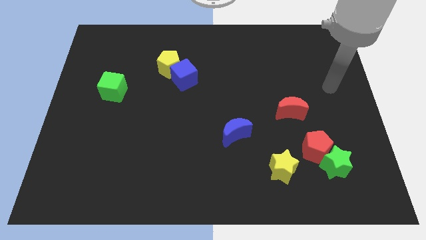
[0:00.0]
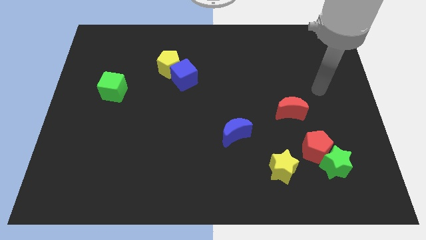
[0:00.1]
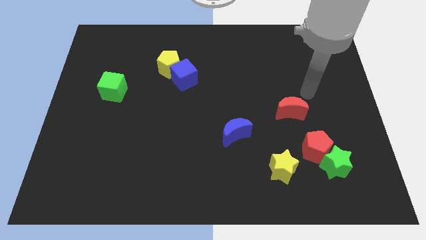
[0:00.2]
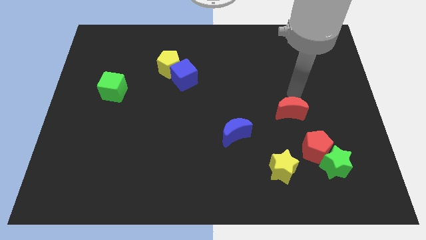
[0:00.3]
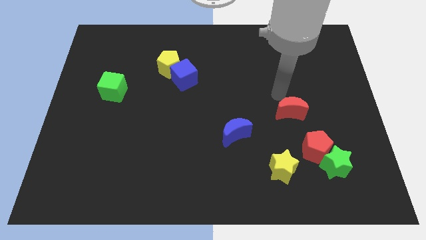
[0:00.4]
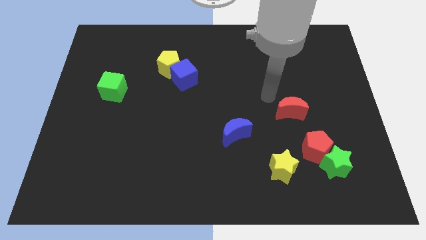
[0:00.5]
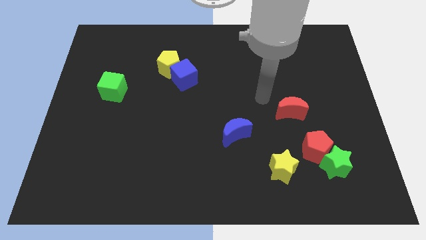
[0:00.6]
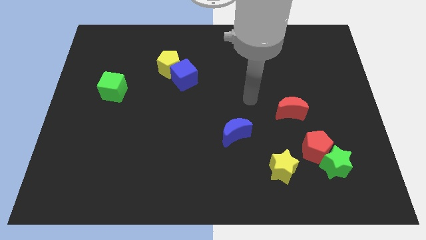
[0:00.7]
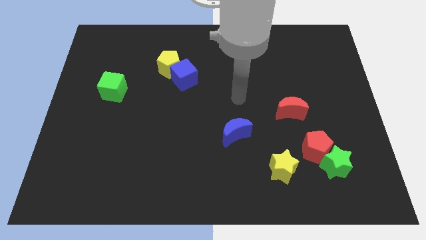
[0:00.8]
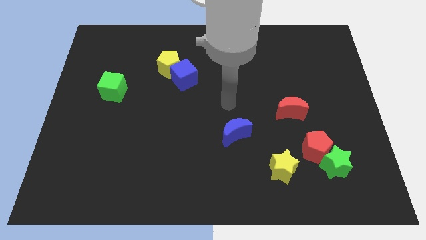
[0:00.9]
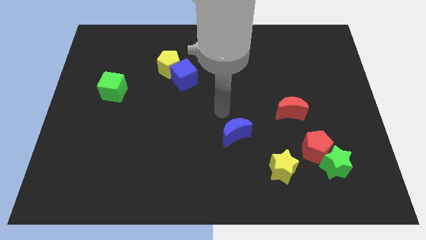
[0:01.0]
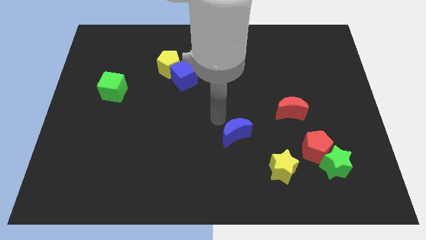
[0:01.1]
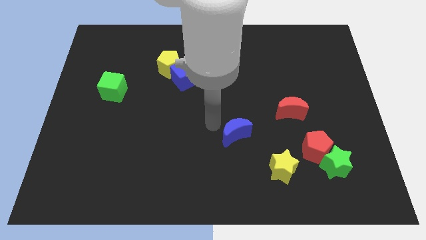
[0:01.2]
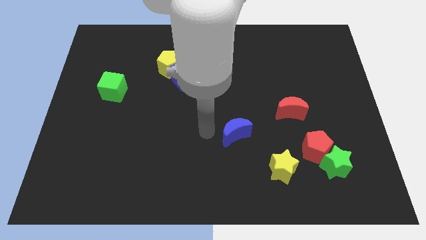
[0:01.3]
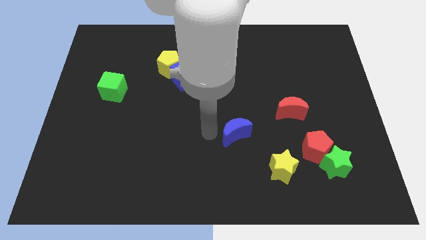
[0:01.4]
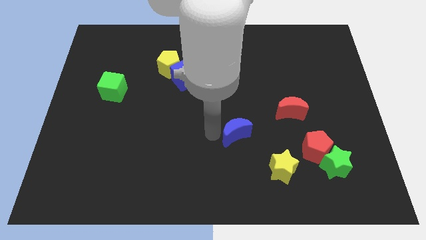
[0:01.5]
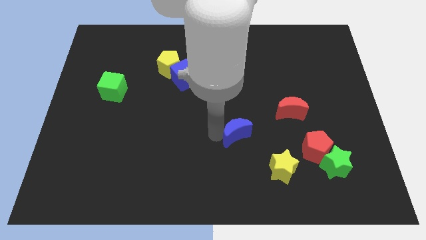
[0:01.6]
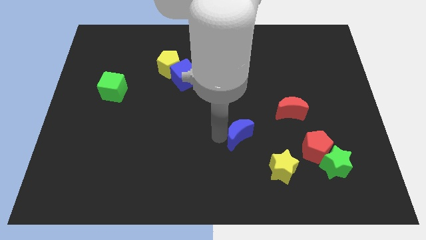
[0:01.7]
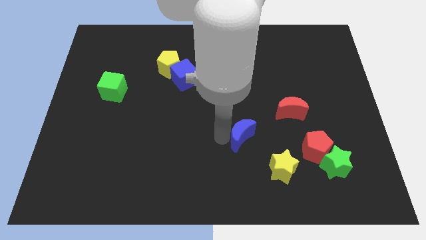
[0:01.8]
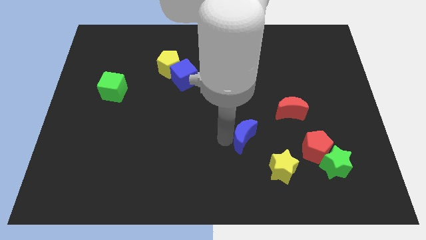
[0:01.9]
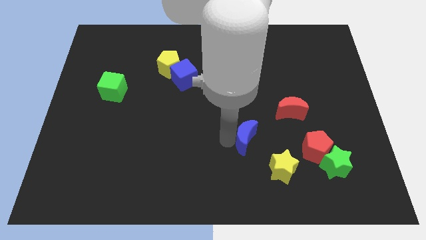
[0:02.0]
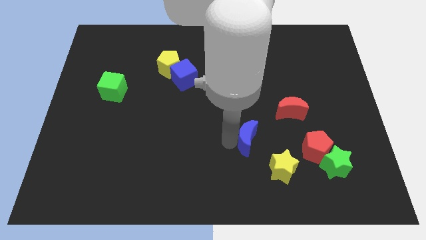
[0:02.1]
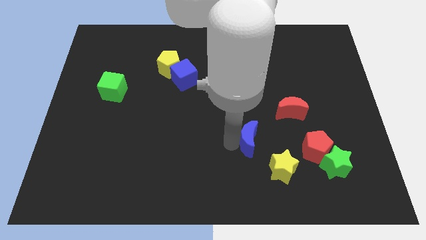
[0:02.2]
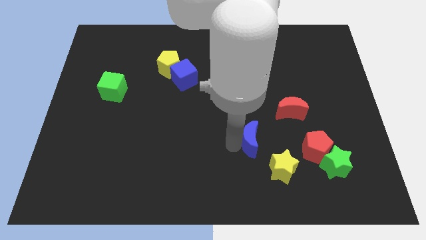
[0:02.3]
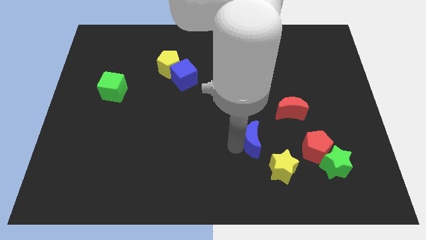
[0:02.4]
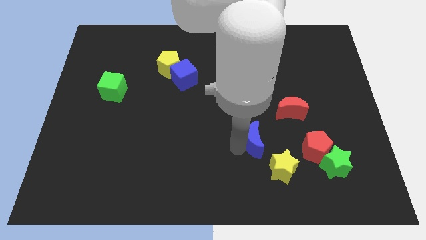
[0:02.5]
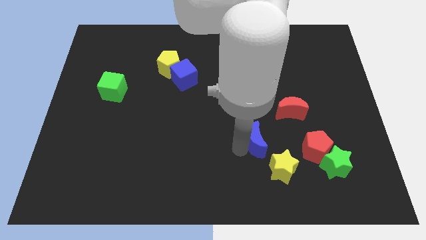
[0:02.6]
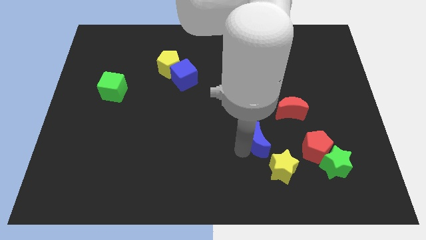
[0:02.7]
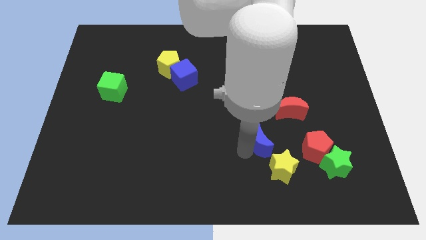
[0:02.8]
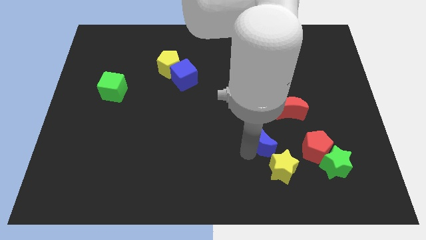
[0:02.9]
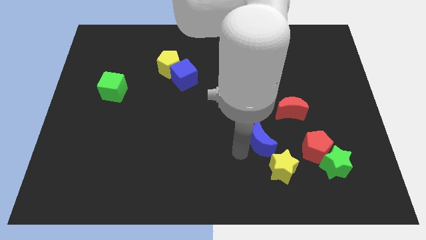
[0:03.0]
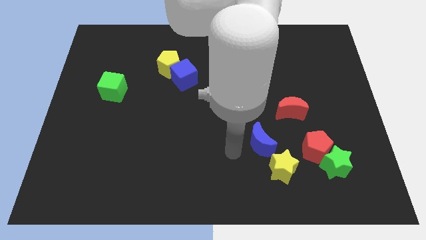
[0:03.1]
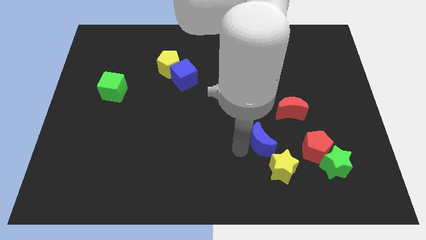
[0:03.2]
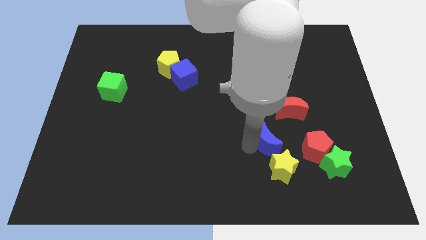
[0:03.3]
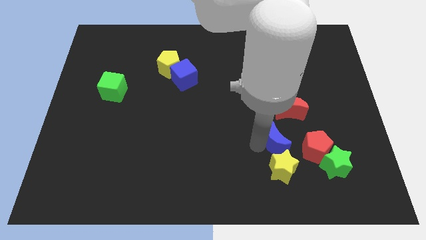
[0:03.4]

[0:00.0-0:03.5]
push the blue moon to the right a little bit

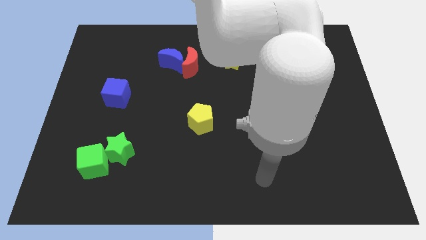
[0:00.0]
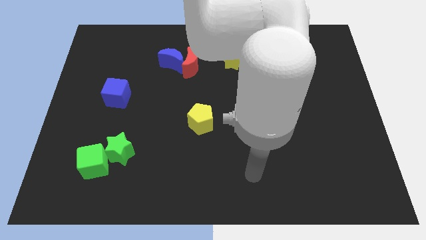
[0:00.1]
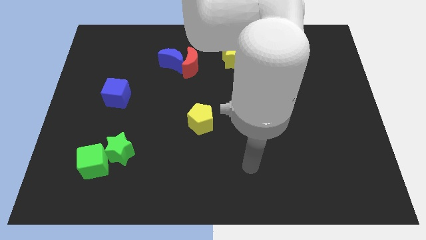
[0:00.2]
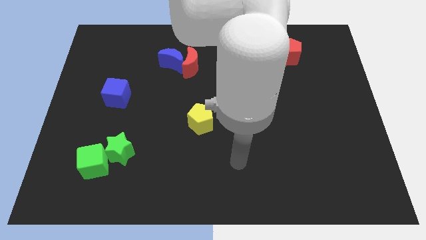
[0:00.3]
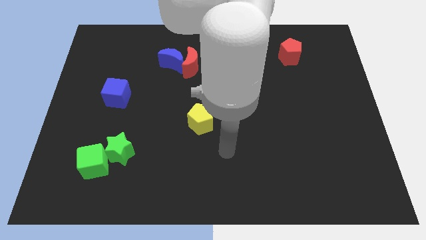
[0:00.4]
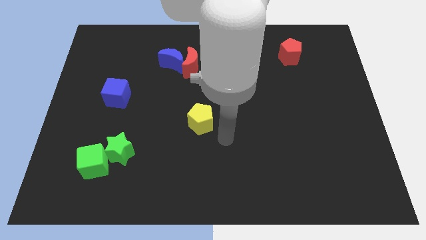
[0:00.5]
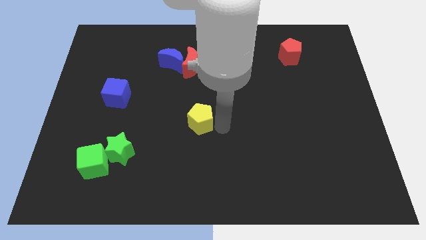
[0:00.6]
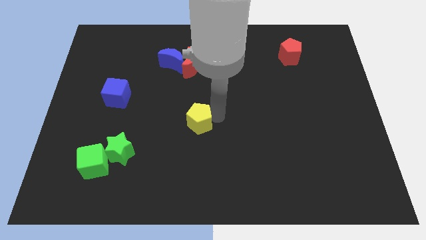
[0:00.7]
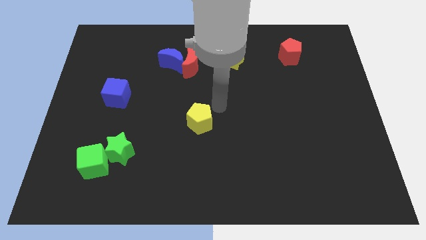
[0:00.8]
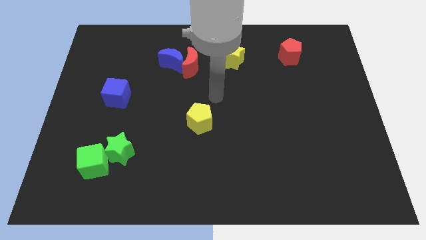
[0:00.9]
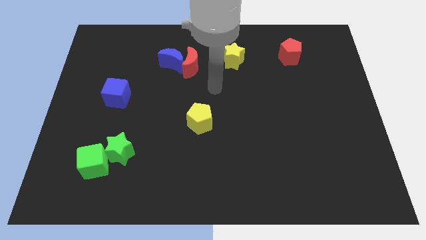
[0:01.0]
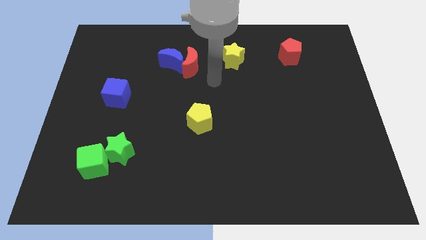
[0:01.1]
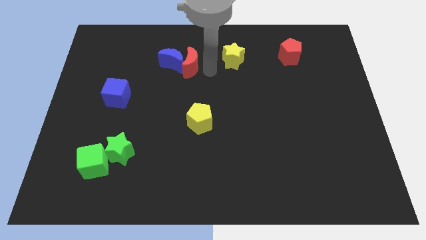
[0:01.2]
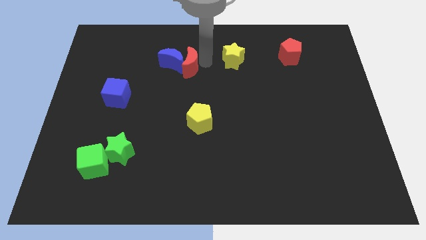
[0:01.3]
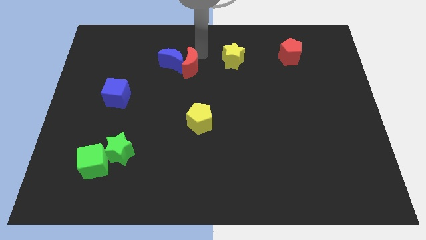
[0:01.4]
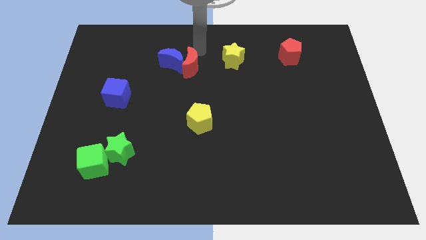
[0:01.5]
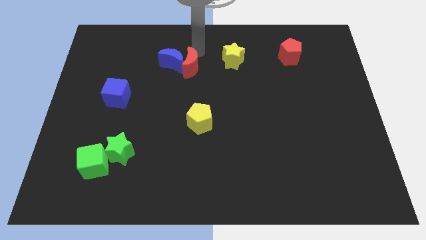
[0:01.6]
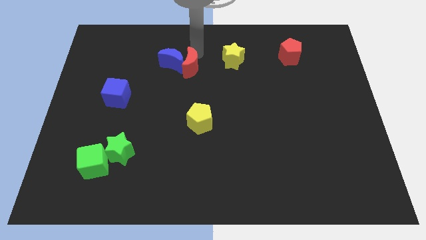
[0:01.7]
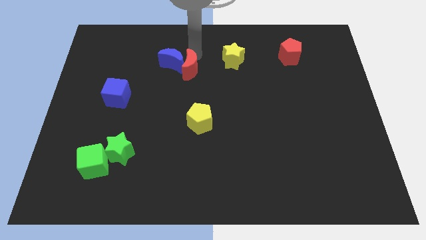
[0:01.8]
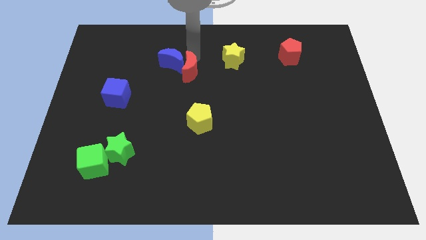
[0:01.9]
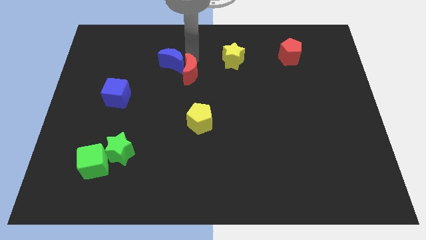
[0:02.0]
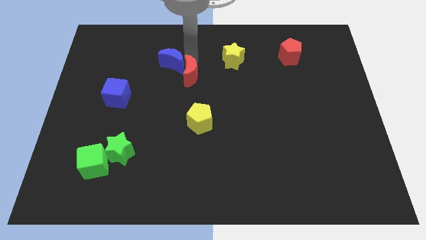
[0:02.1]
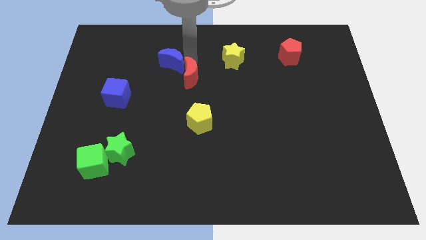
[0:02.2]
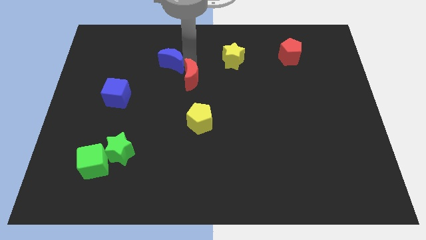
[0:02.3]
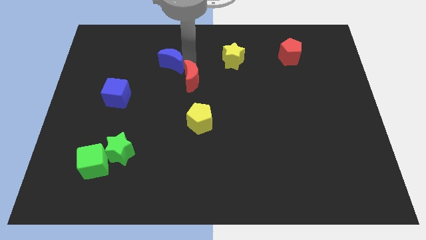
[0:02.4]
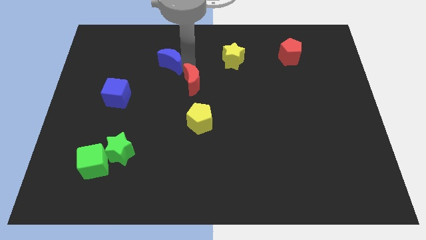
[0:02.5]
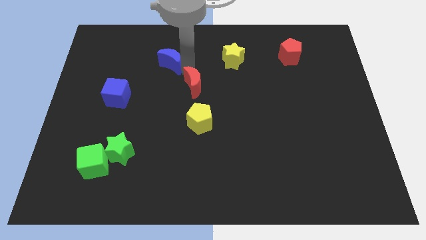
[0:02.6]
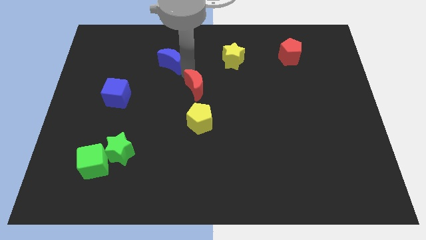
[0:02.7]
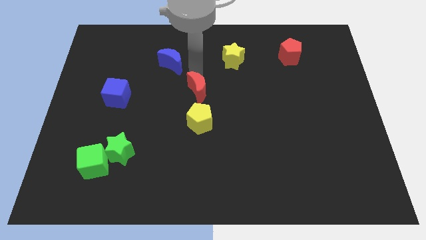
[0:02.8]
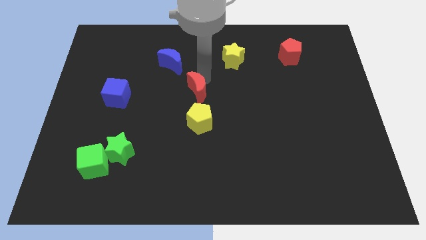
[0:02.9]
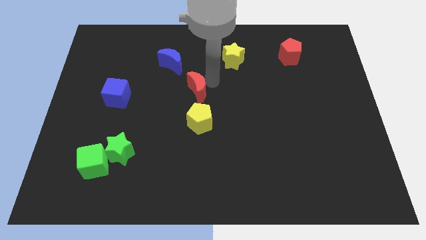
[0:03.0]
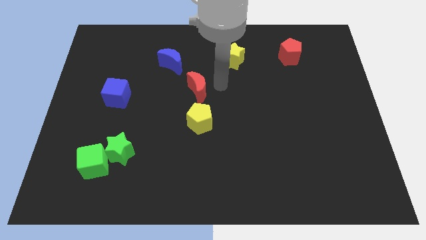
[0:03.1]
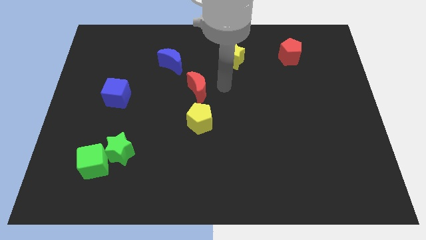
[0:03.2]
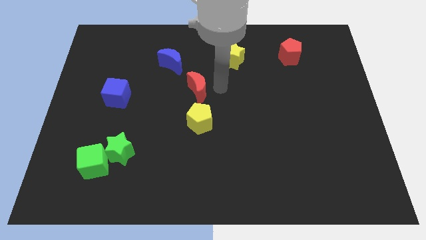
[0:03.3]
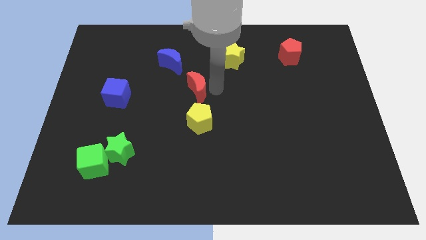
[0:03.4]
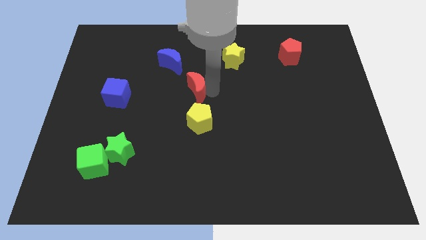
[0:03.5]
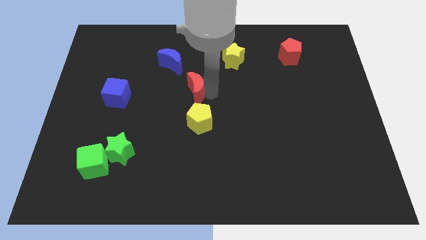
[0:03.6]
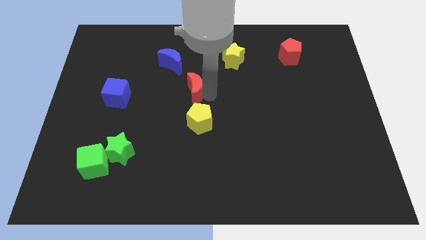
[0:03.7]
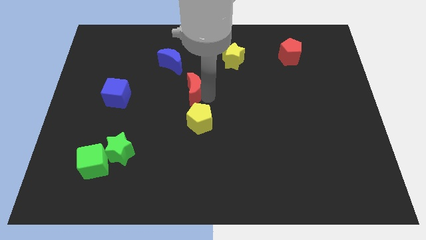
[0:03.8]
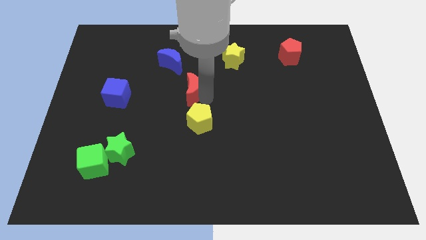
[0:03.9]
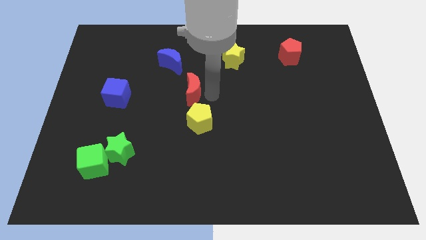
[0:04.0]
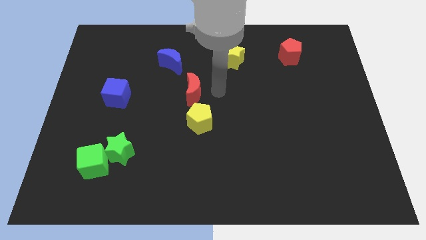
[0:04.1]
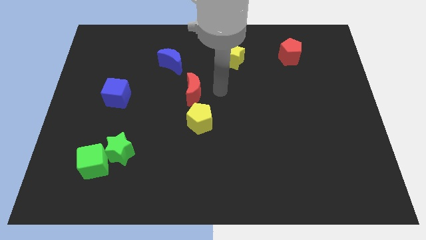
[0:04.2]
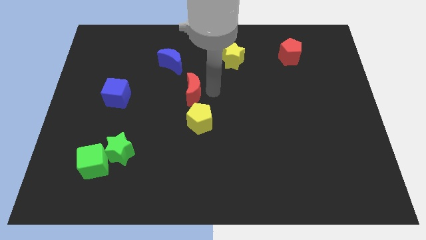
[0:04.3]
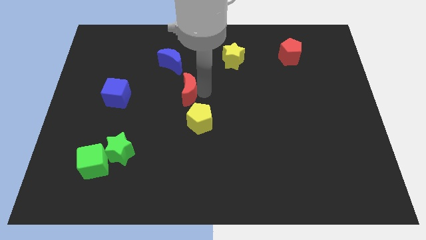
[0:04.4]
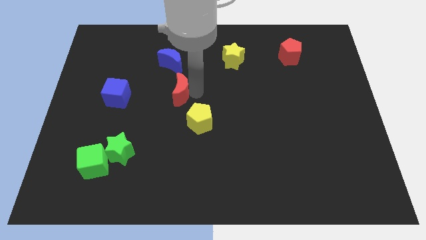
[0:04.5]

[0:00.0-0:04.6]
move the red moon a bit downwards and left
